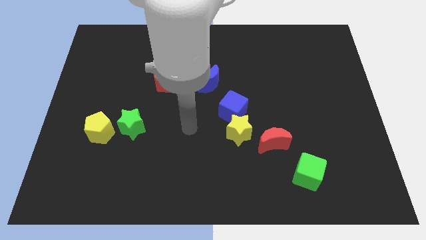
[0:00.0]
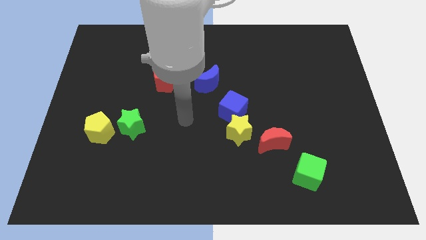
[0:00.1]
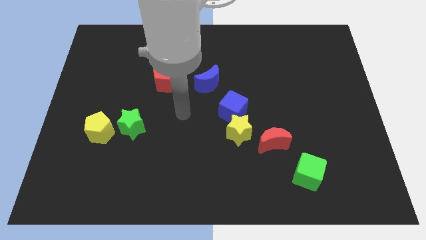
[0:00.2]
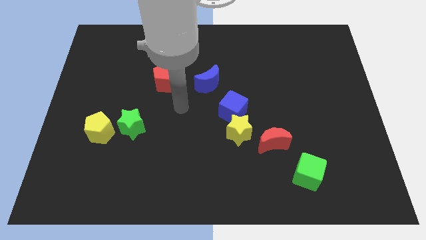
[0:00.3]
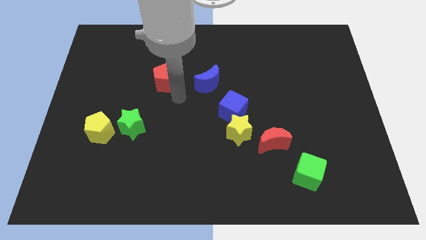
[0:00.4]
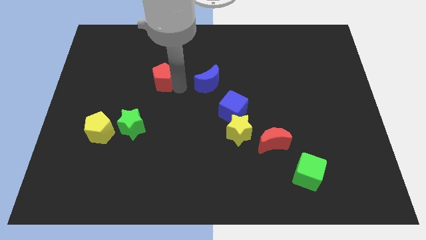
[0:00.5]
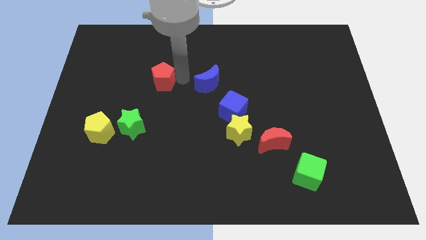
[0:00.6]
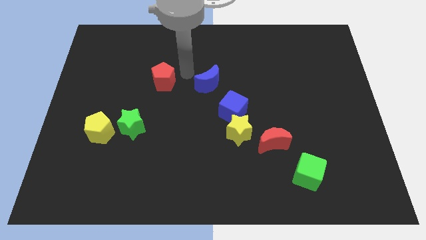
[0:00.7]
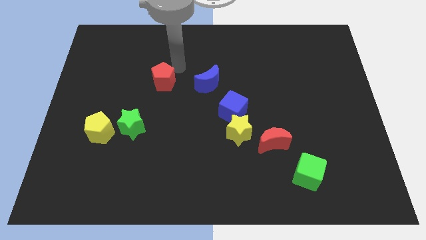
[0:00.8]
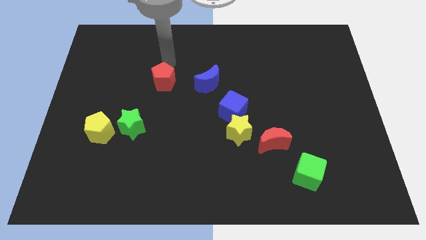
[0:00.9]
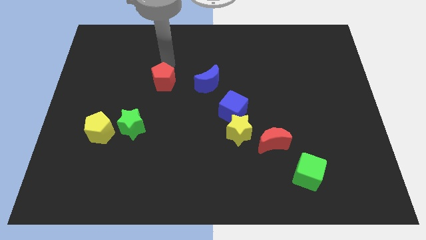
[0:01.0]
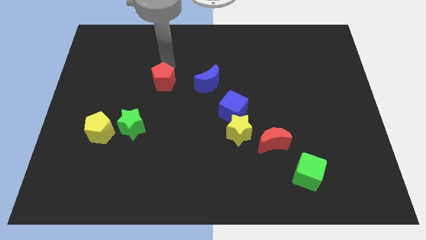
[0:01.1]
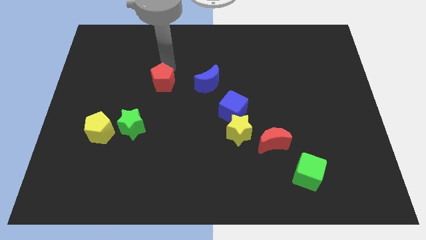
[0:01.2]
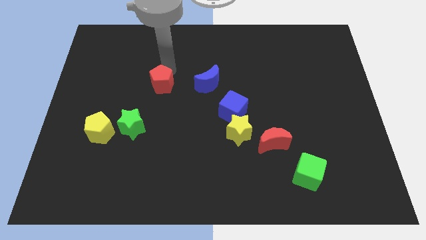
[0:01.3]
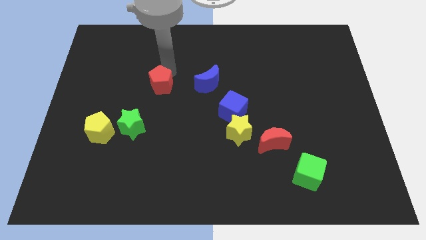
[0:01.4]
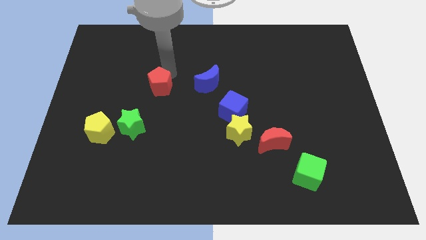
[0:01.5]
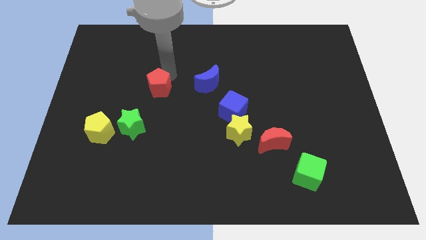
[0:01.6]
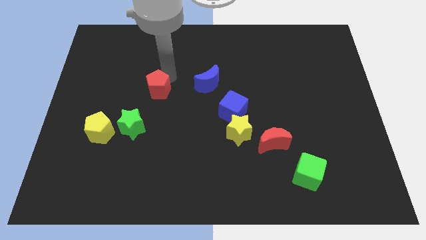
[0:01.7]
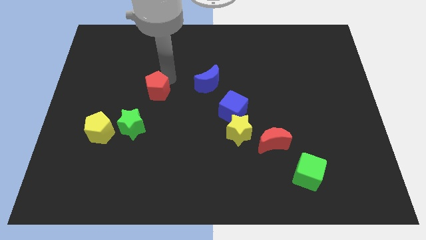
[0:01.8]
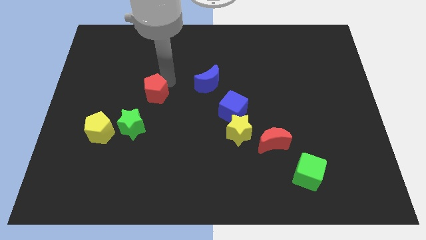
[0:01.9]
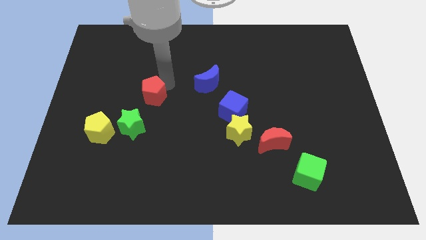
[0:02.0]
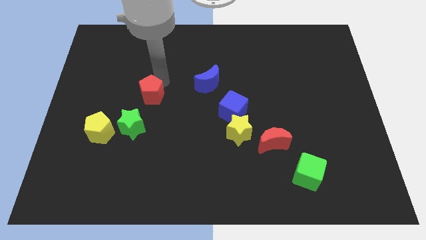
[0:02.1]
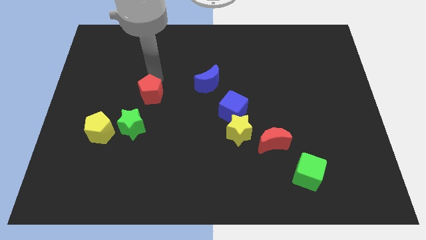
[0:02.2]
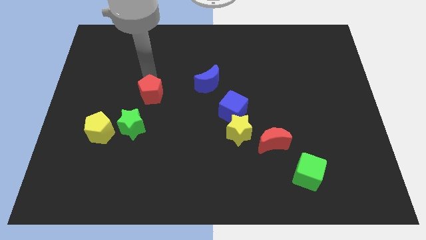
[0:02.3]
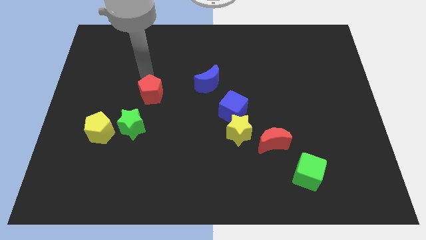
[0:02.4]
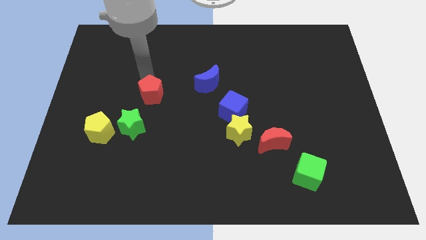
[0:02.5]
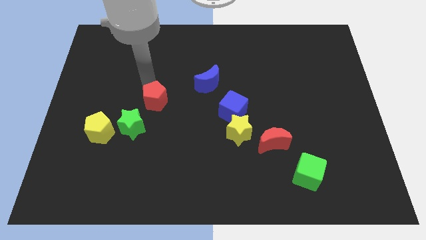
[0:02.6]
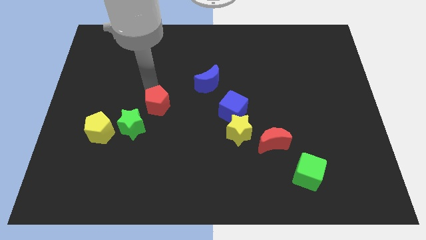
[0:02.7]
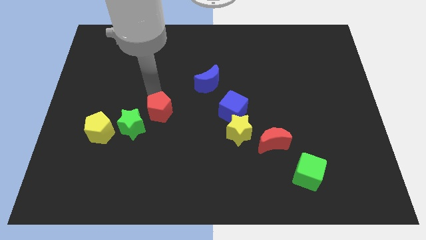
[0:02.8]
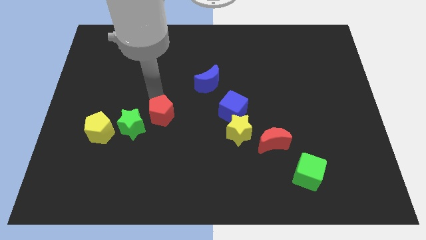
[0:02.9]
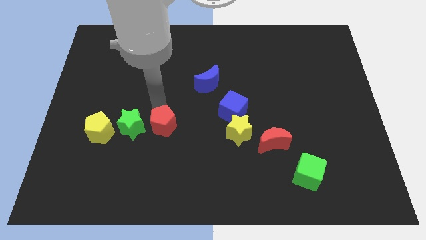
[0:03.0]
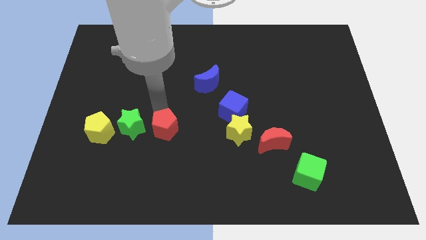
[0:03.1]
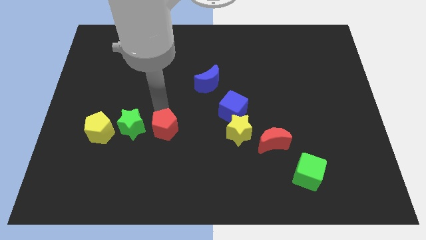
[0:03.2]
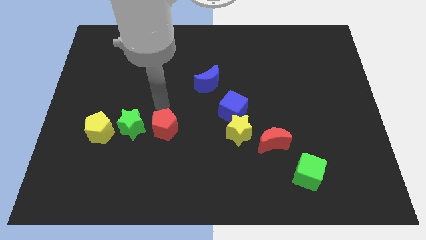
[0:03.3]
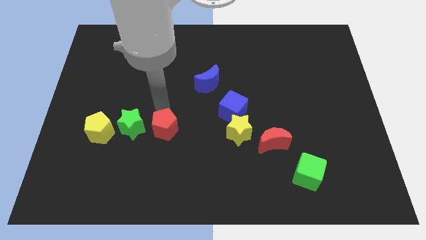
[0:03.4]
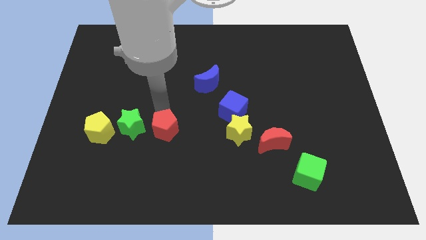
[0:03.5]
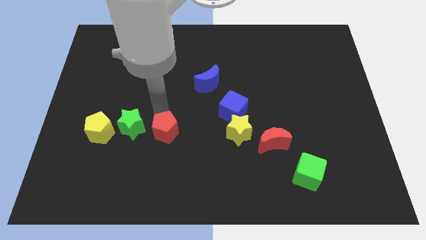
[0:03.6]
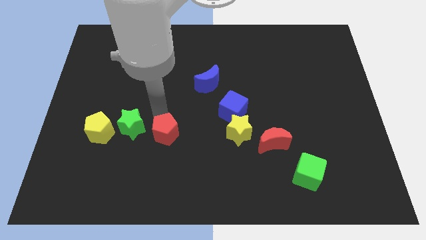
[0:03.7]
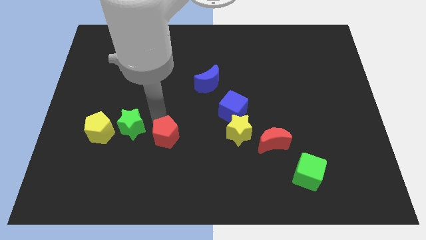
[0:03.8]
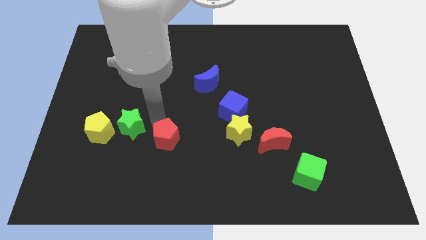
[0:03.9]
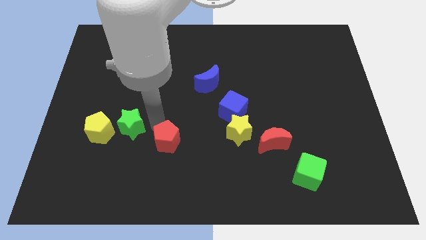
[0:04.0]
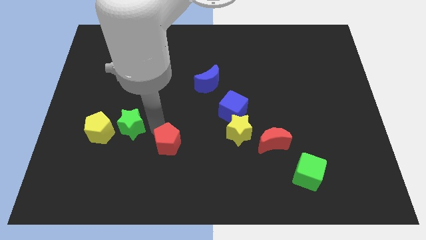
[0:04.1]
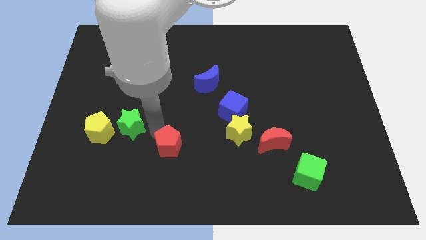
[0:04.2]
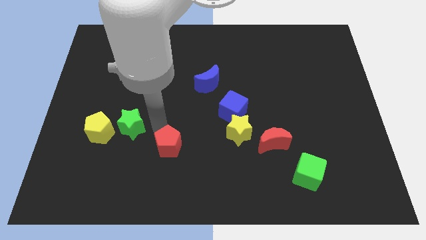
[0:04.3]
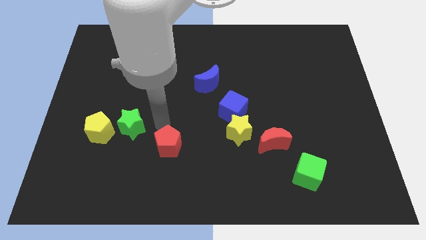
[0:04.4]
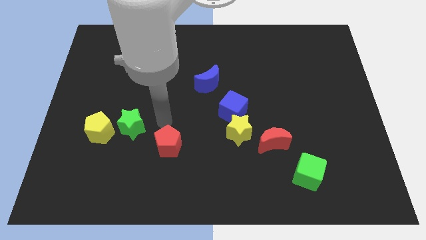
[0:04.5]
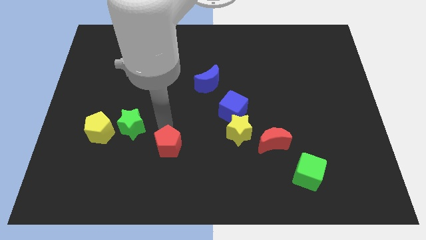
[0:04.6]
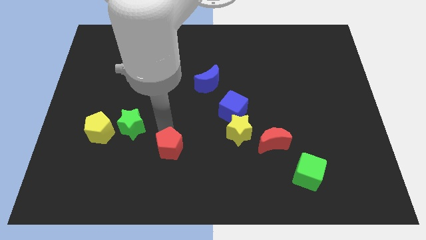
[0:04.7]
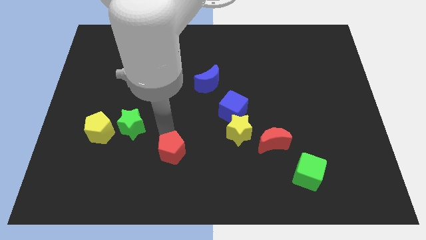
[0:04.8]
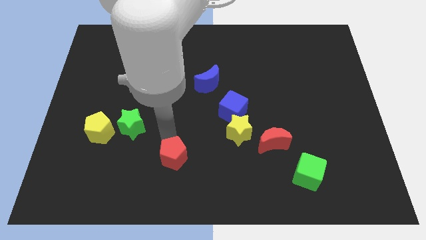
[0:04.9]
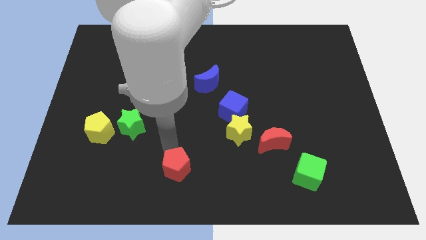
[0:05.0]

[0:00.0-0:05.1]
put the red pentagon to the bottom side

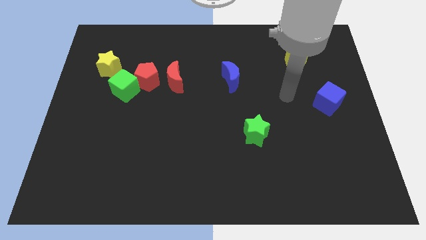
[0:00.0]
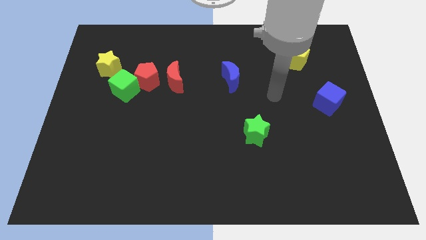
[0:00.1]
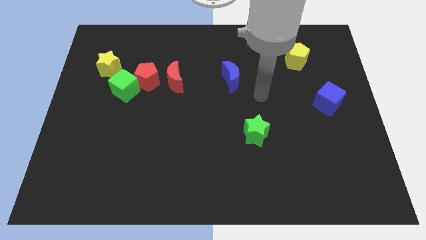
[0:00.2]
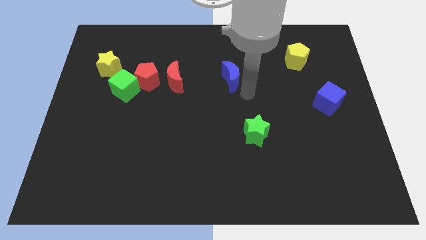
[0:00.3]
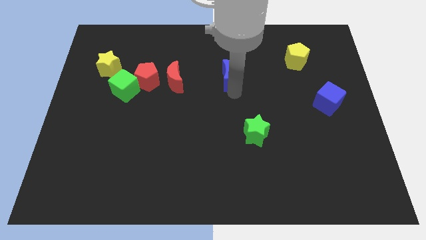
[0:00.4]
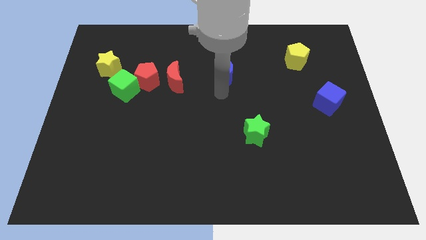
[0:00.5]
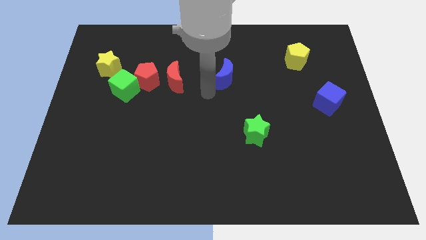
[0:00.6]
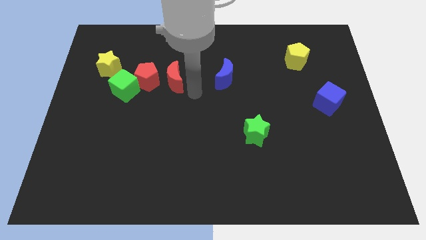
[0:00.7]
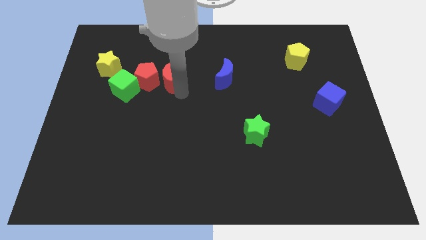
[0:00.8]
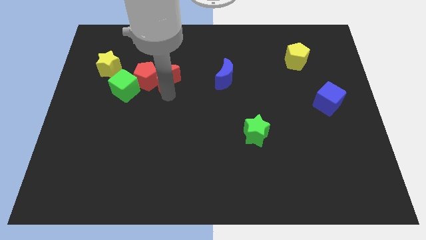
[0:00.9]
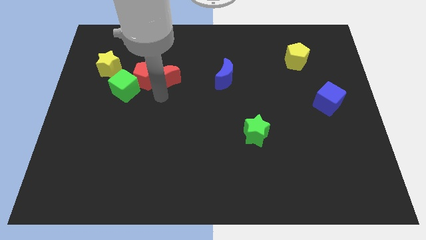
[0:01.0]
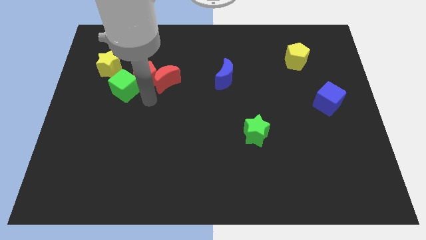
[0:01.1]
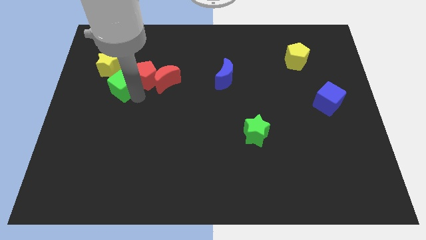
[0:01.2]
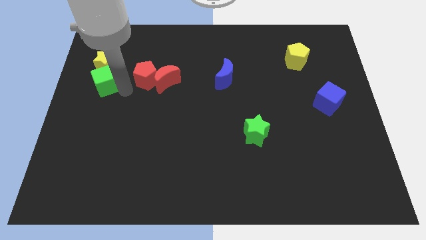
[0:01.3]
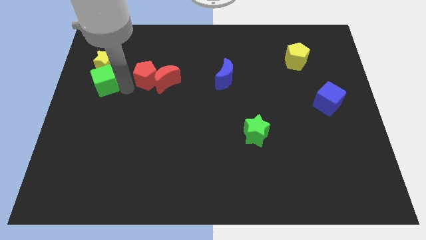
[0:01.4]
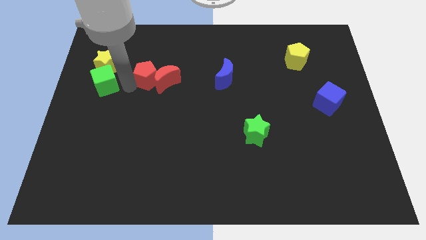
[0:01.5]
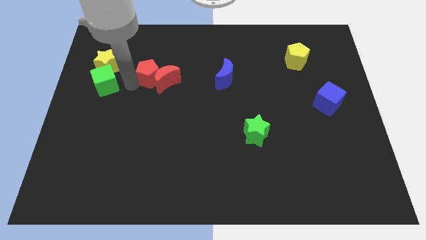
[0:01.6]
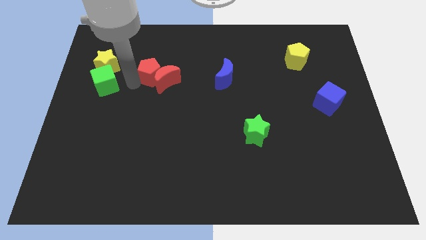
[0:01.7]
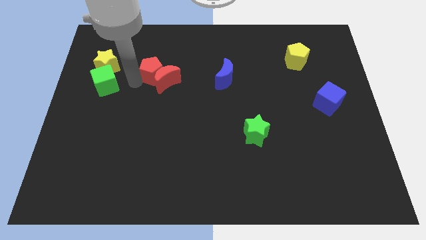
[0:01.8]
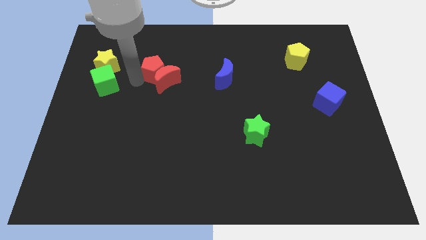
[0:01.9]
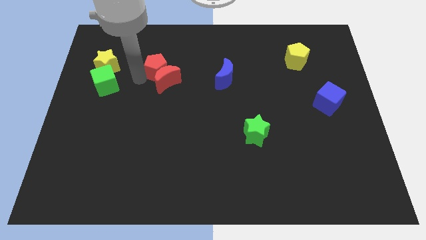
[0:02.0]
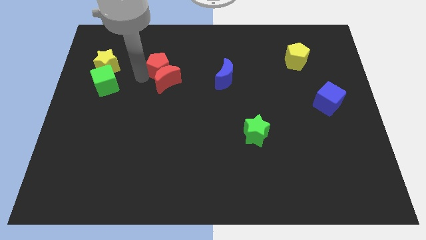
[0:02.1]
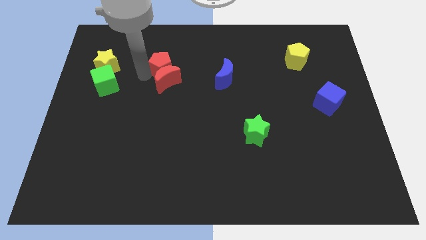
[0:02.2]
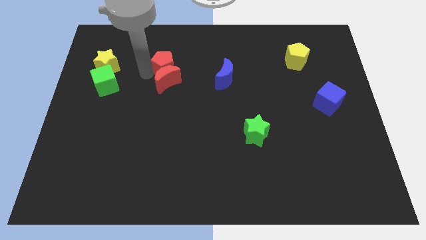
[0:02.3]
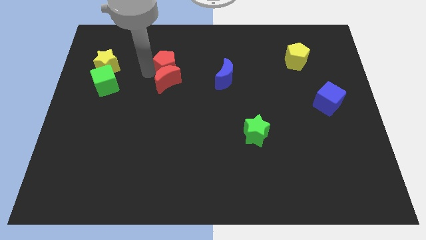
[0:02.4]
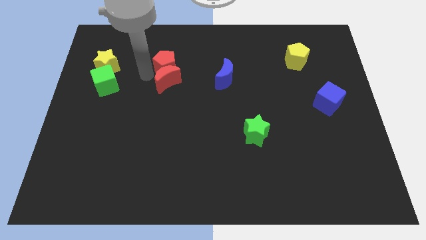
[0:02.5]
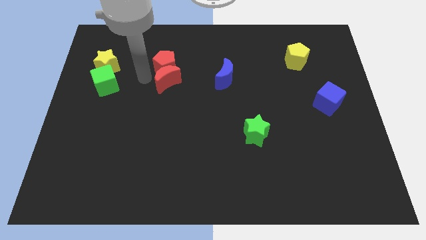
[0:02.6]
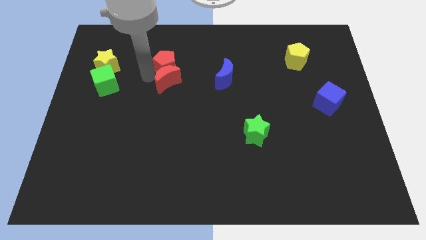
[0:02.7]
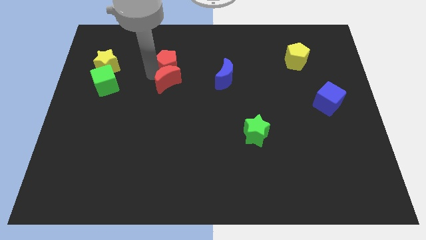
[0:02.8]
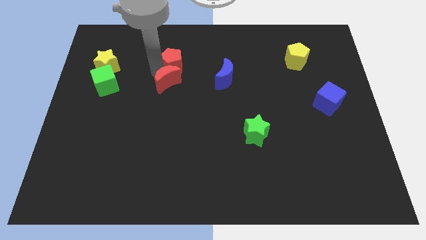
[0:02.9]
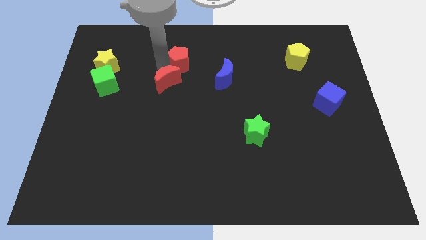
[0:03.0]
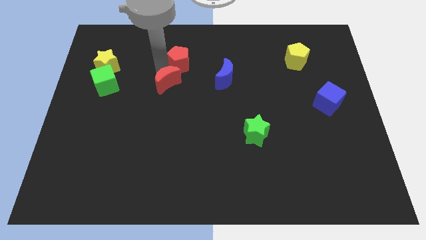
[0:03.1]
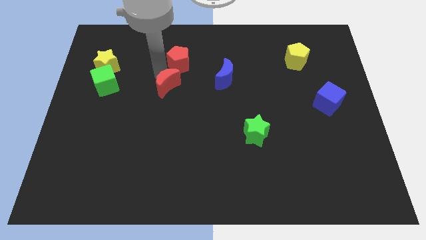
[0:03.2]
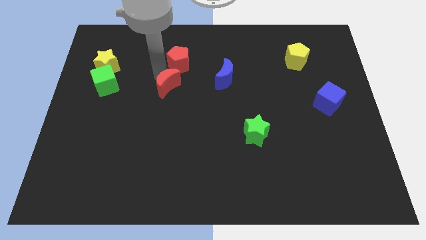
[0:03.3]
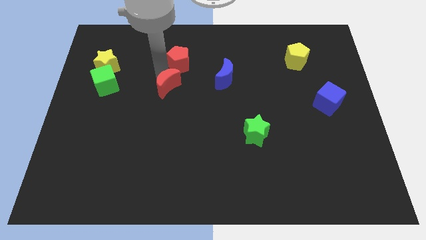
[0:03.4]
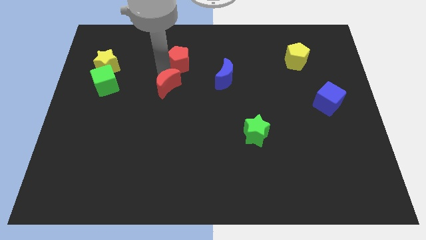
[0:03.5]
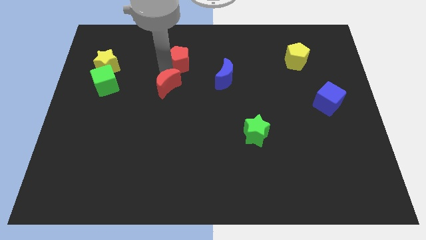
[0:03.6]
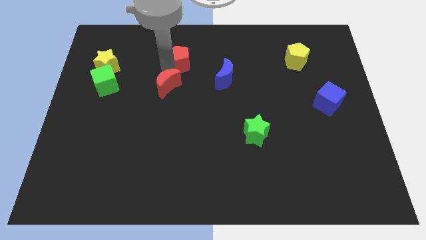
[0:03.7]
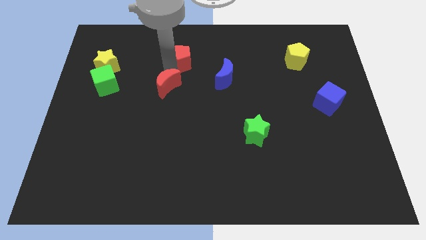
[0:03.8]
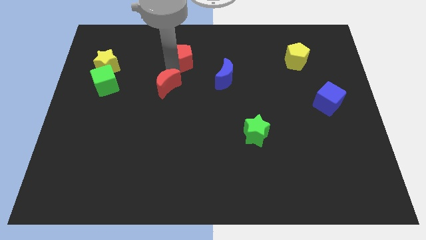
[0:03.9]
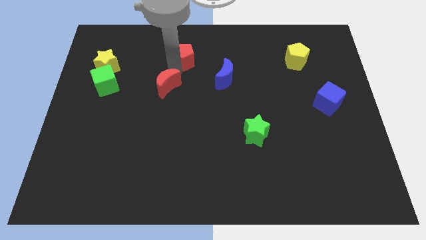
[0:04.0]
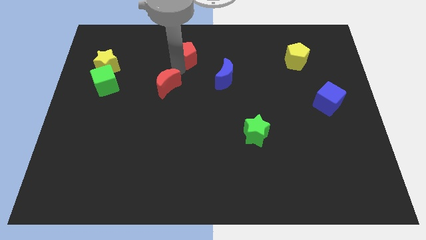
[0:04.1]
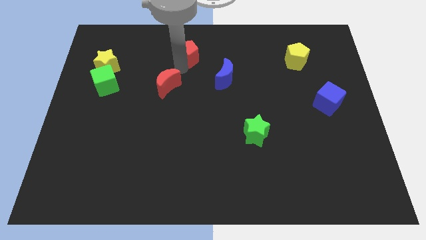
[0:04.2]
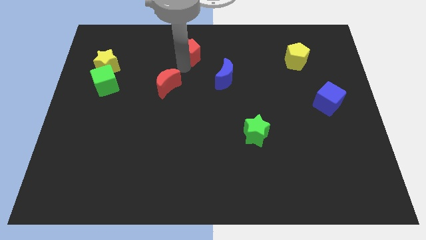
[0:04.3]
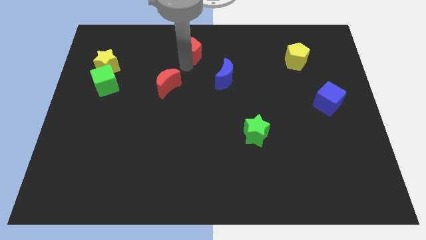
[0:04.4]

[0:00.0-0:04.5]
slide the red pentagon to the top
